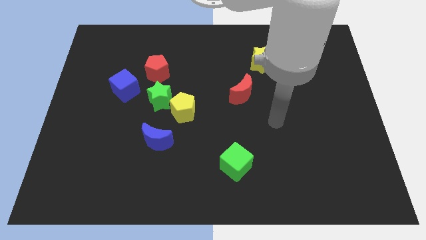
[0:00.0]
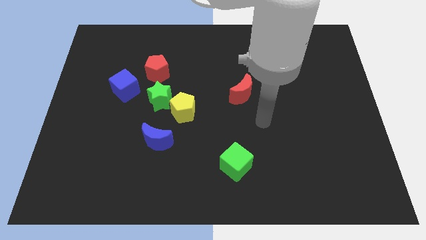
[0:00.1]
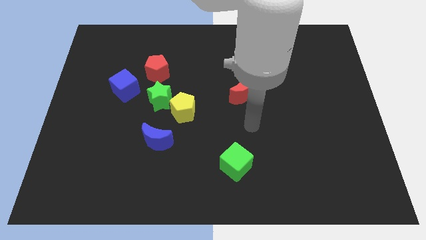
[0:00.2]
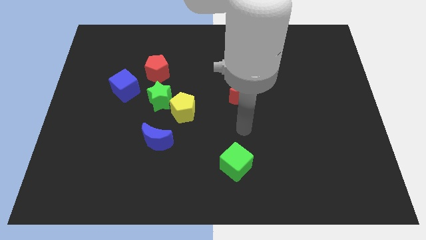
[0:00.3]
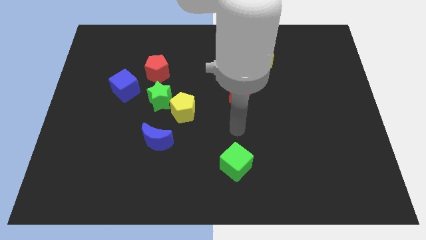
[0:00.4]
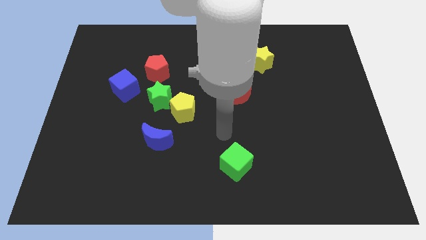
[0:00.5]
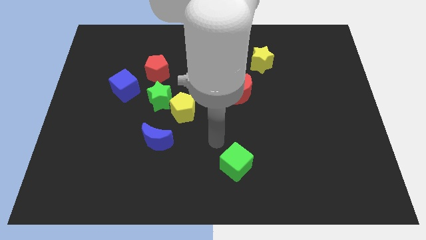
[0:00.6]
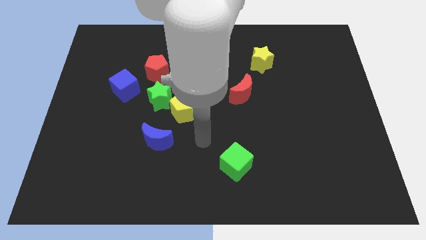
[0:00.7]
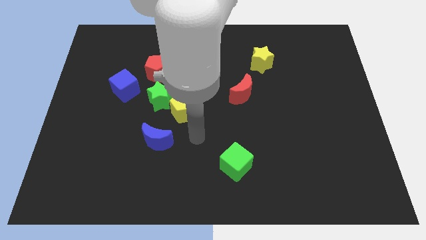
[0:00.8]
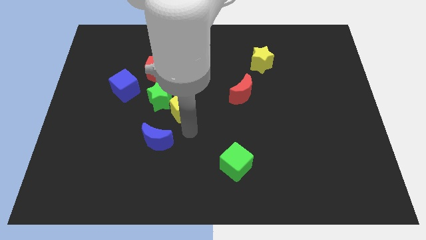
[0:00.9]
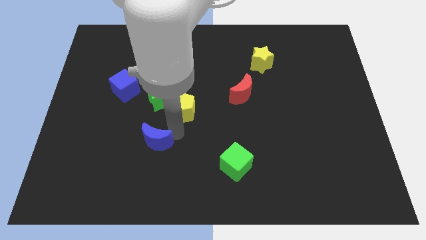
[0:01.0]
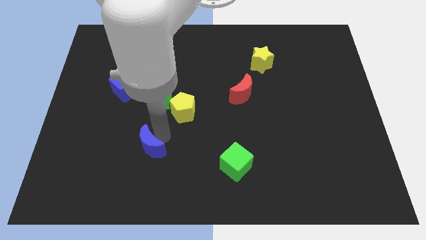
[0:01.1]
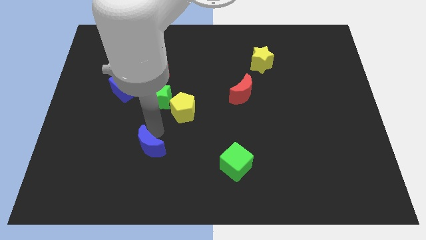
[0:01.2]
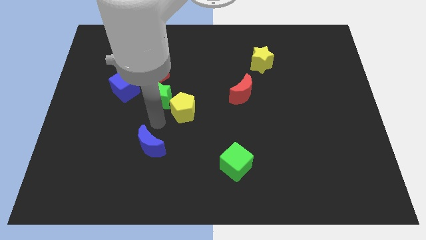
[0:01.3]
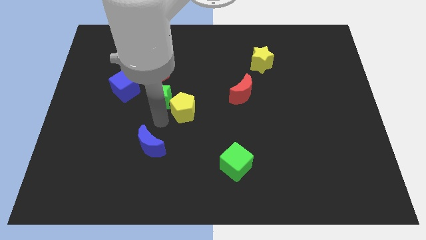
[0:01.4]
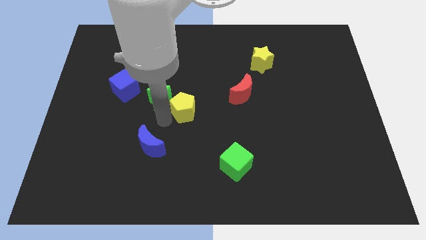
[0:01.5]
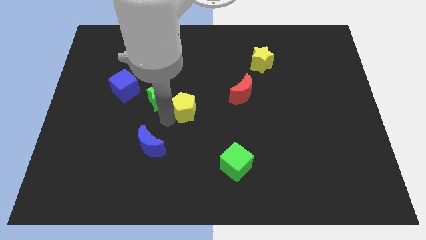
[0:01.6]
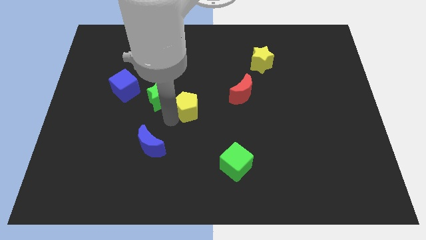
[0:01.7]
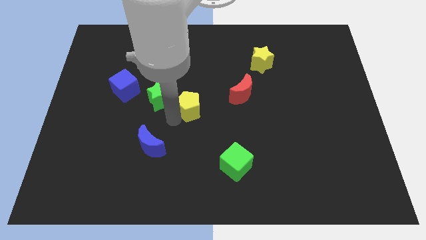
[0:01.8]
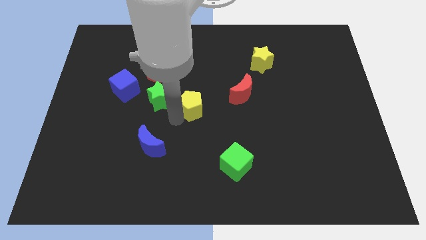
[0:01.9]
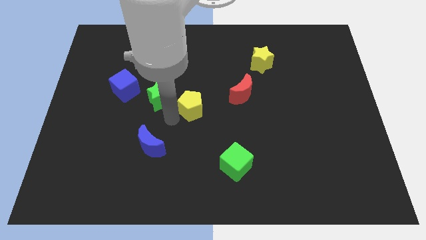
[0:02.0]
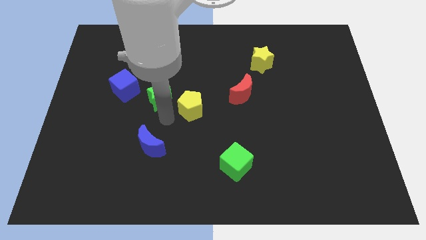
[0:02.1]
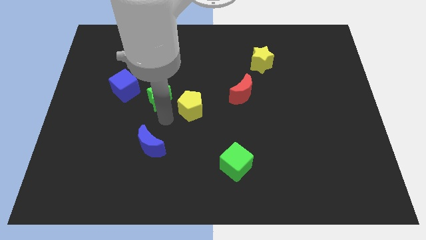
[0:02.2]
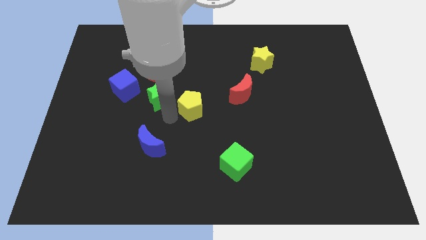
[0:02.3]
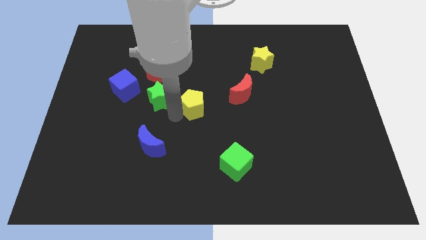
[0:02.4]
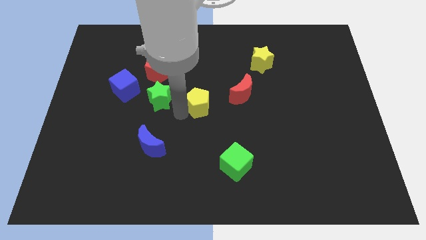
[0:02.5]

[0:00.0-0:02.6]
separate the yellow pentagon from the green star and blue moon

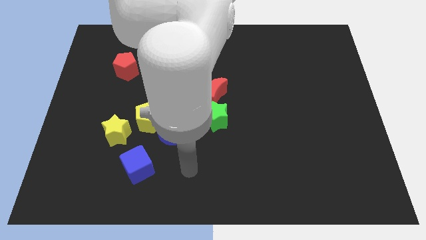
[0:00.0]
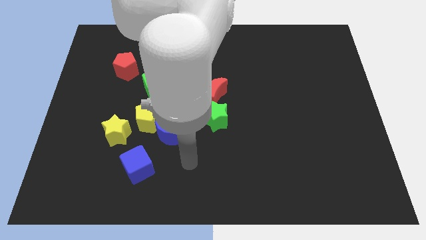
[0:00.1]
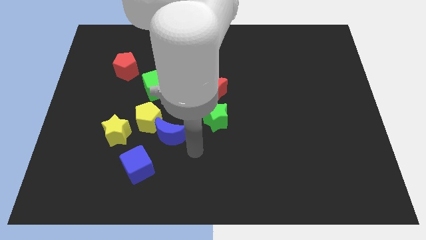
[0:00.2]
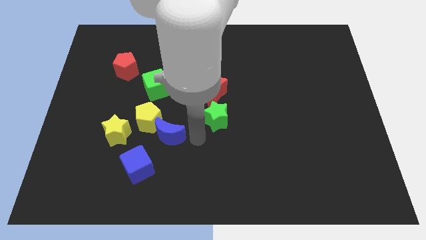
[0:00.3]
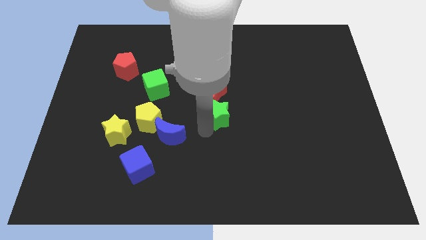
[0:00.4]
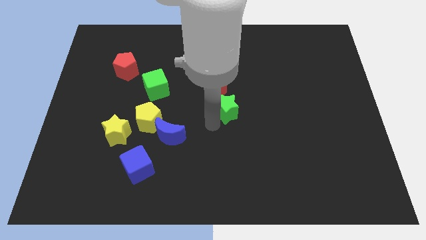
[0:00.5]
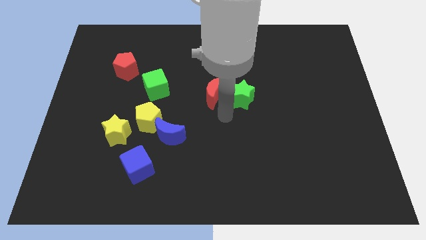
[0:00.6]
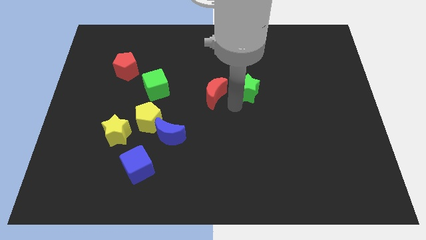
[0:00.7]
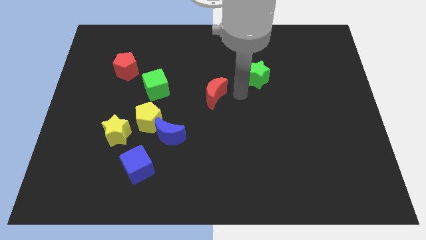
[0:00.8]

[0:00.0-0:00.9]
pull the red moon apart from the green star

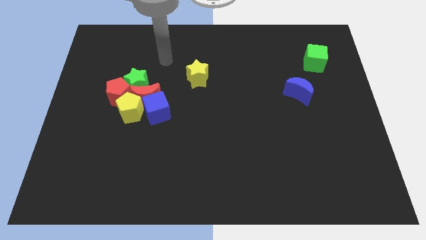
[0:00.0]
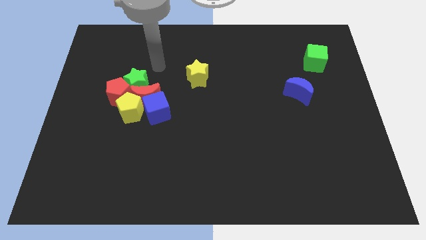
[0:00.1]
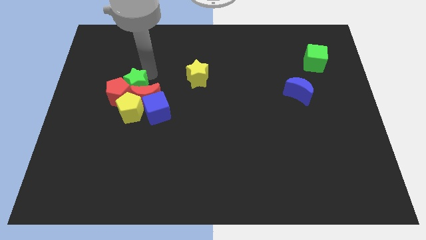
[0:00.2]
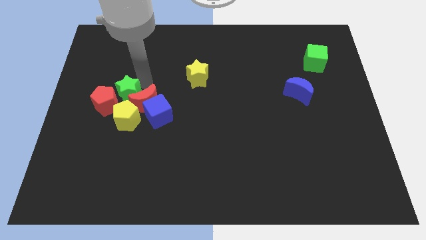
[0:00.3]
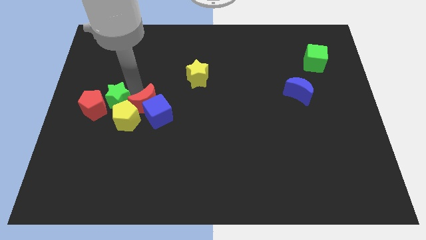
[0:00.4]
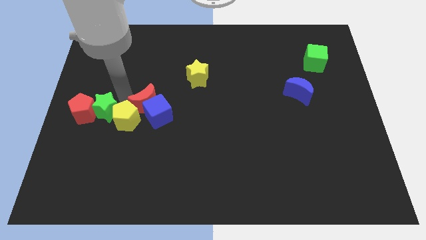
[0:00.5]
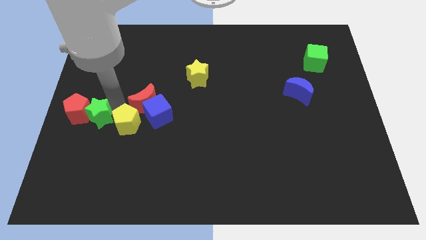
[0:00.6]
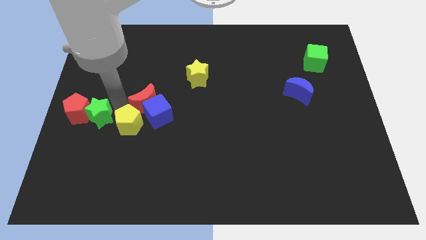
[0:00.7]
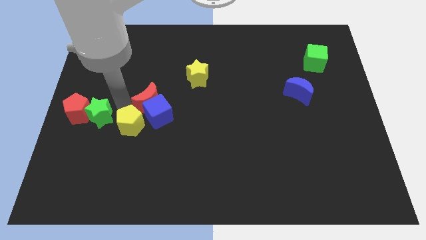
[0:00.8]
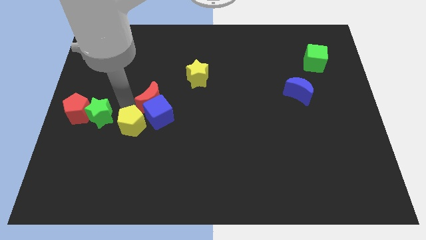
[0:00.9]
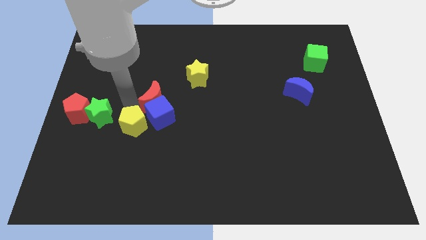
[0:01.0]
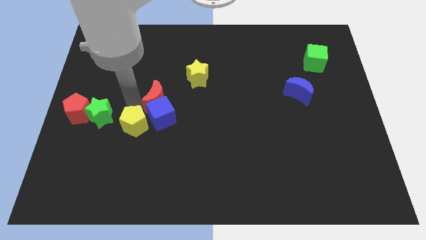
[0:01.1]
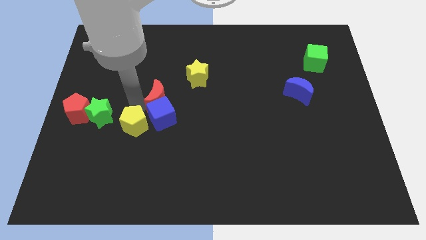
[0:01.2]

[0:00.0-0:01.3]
separate the red moon from the clump

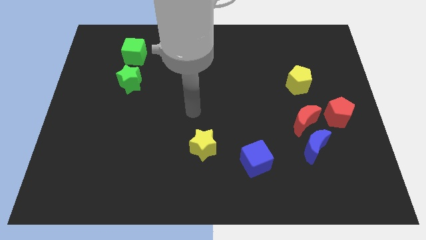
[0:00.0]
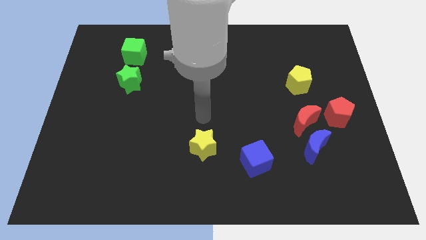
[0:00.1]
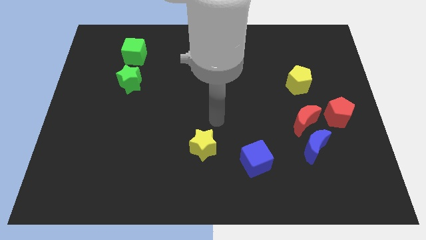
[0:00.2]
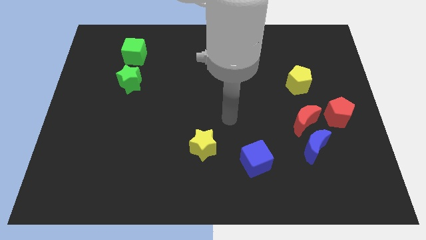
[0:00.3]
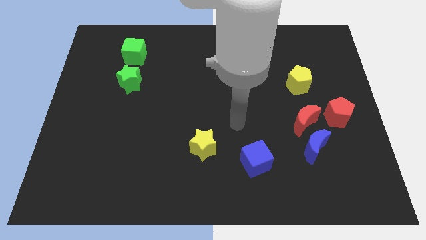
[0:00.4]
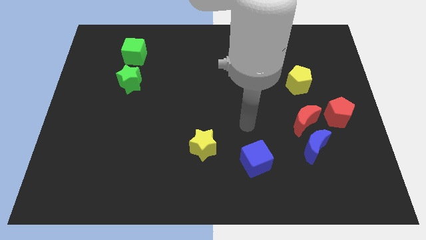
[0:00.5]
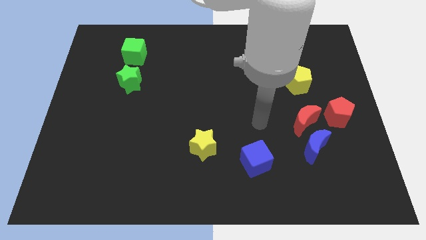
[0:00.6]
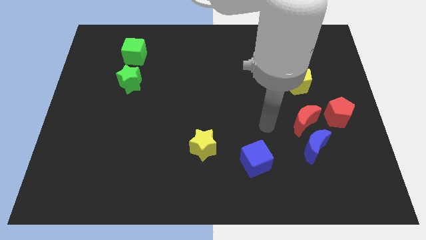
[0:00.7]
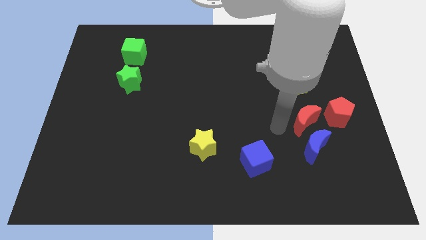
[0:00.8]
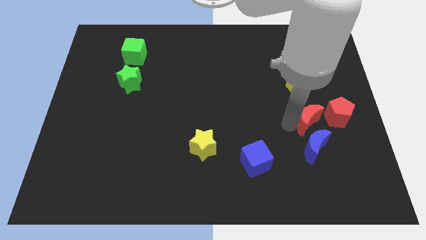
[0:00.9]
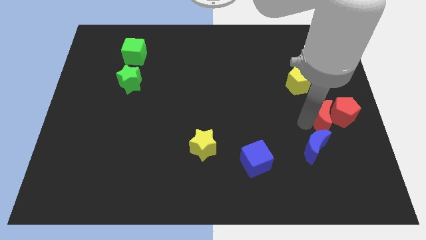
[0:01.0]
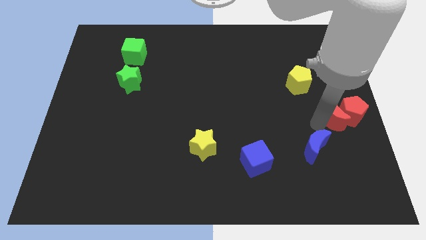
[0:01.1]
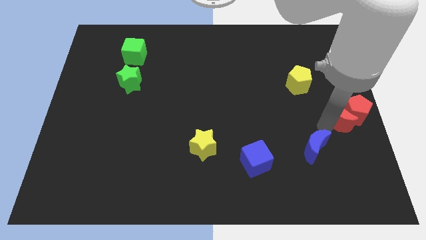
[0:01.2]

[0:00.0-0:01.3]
separate the blue moon from the red moon

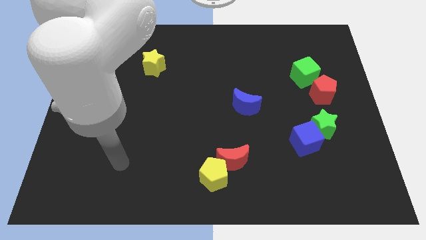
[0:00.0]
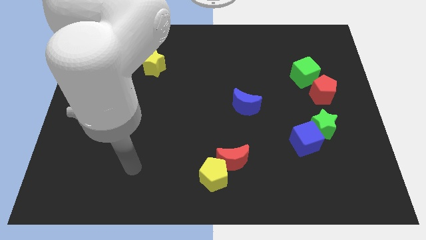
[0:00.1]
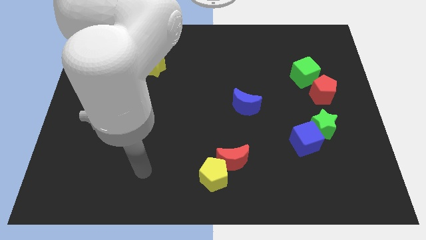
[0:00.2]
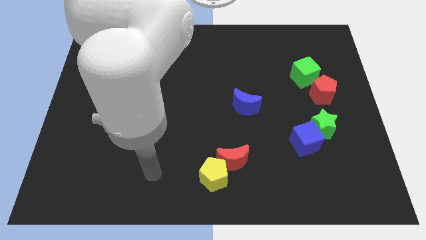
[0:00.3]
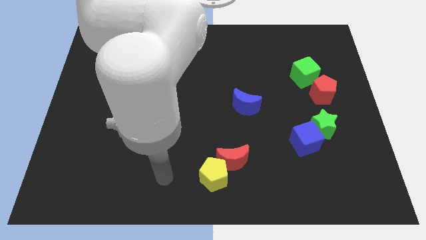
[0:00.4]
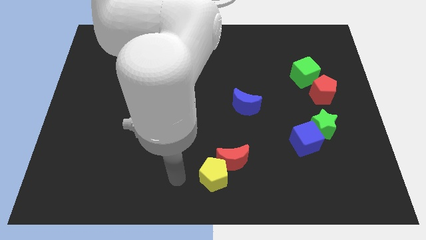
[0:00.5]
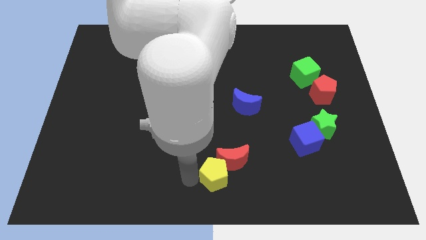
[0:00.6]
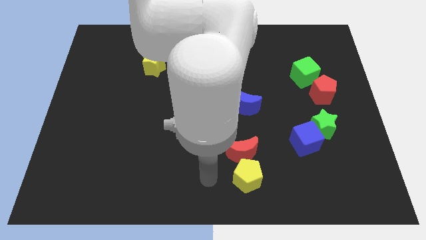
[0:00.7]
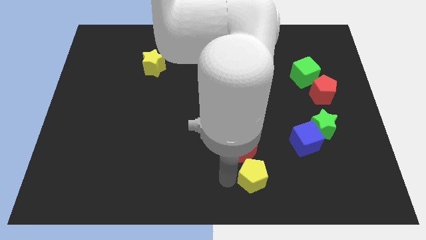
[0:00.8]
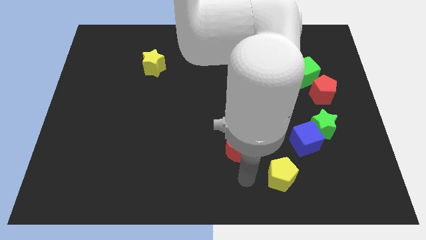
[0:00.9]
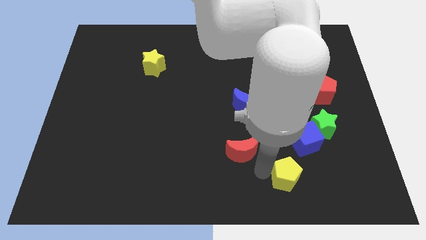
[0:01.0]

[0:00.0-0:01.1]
move the red moon away from the yellow pentagon

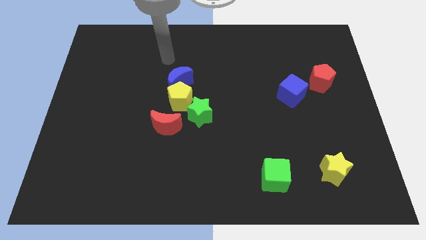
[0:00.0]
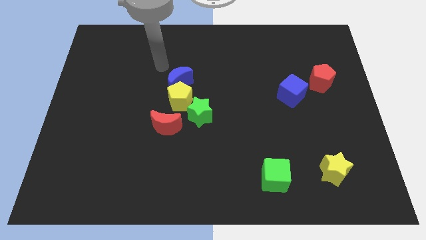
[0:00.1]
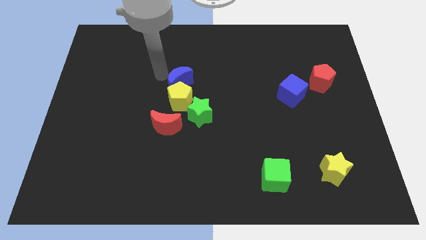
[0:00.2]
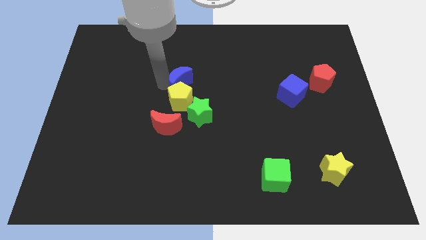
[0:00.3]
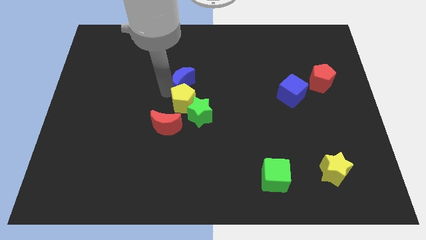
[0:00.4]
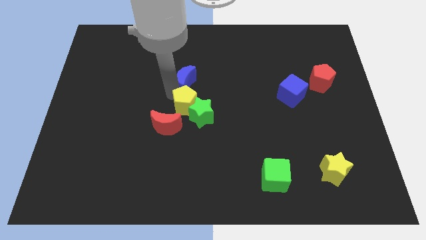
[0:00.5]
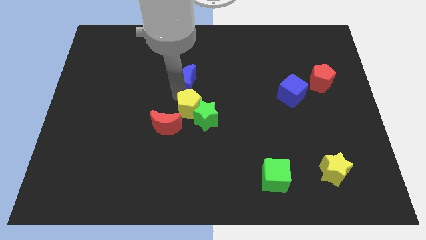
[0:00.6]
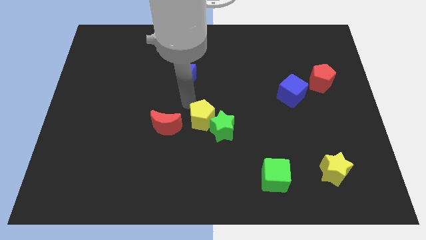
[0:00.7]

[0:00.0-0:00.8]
separate the blue moon from the yellow pentagon

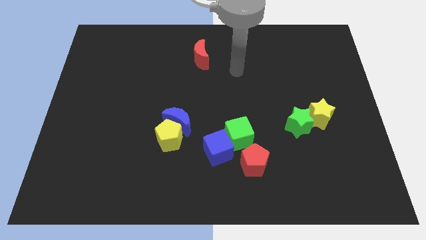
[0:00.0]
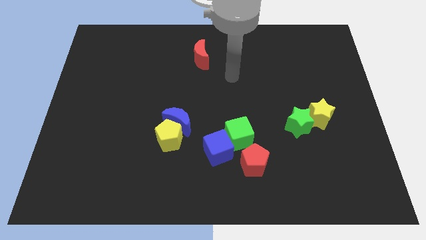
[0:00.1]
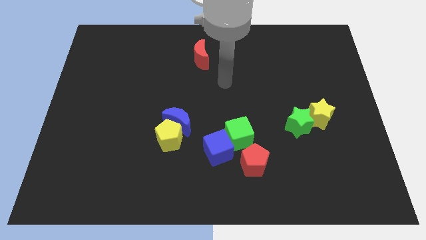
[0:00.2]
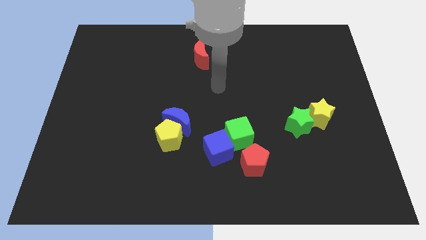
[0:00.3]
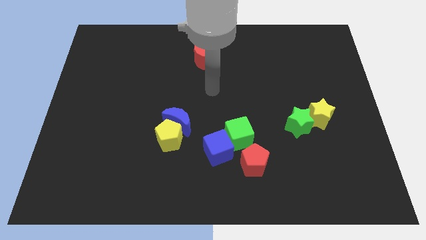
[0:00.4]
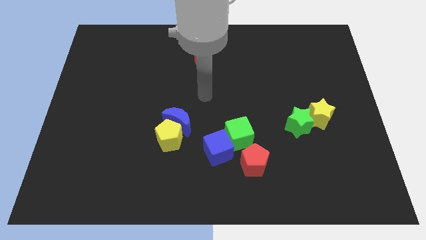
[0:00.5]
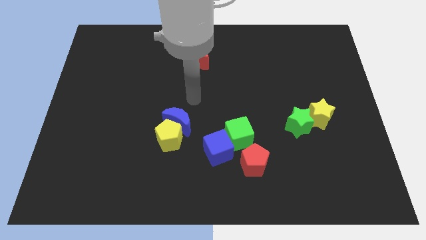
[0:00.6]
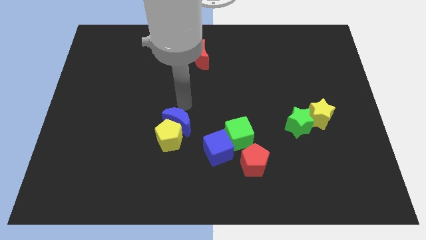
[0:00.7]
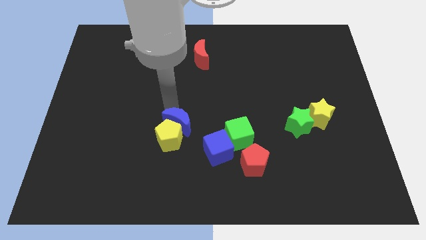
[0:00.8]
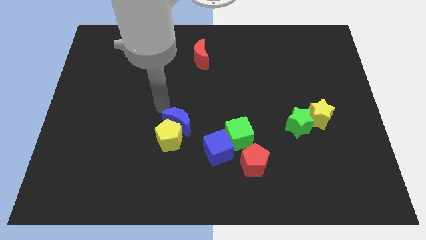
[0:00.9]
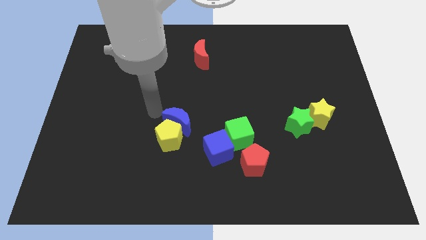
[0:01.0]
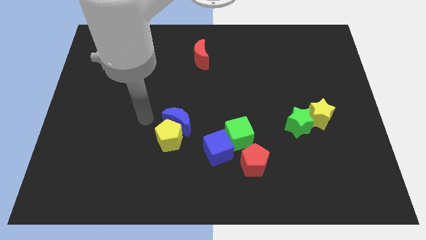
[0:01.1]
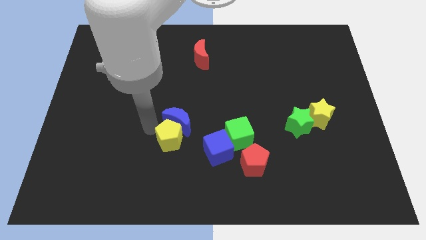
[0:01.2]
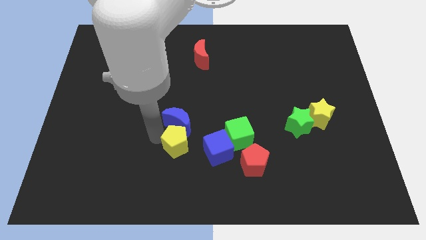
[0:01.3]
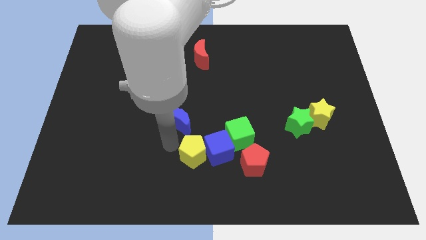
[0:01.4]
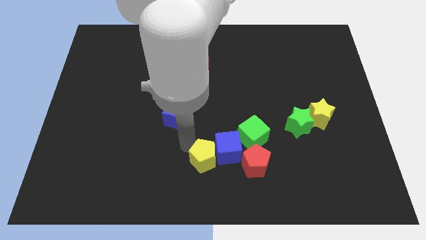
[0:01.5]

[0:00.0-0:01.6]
move the blue moon away from the yellow pentagon
